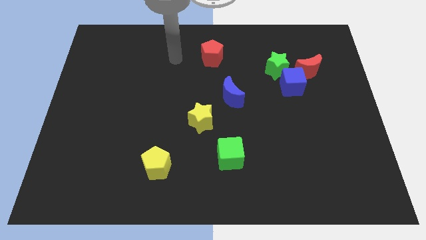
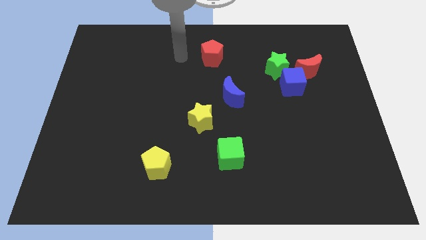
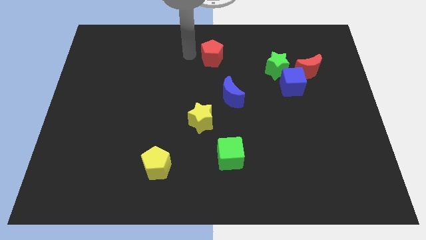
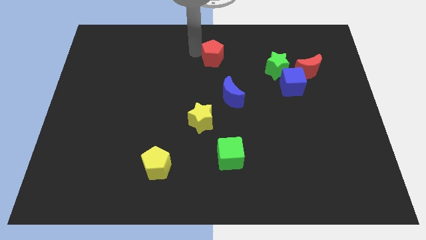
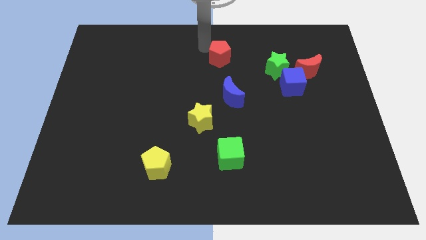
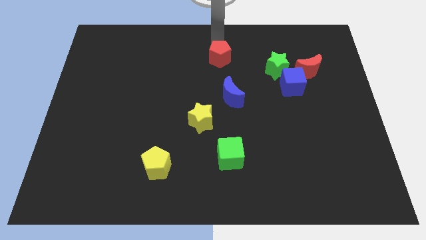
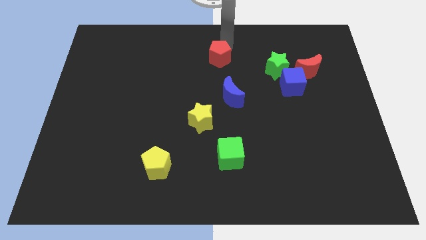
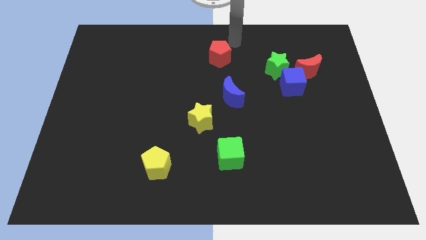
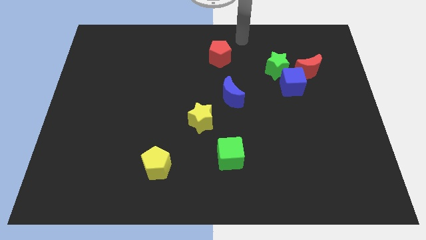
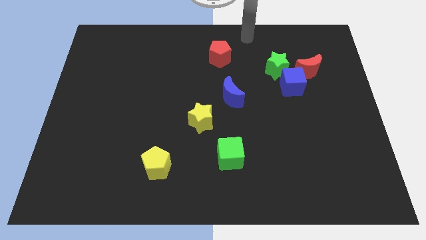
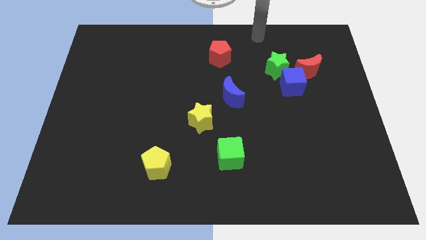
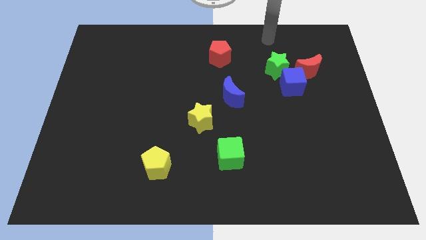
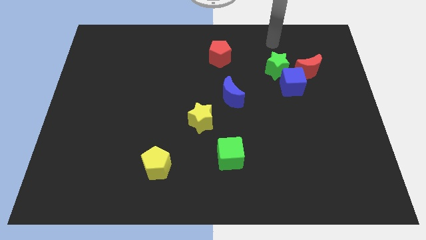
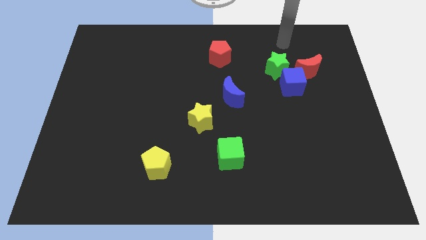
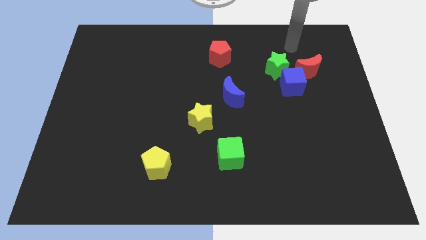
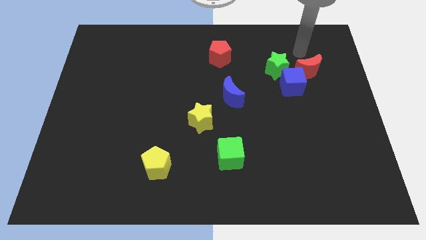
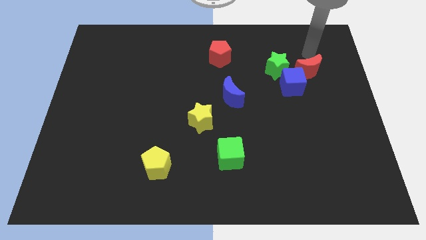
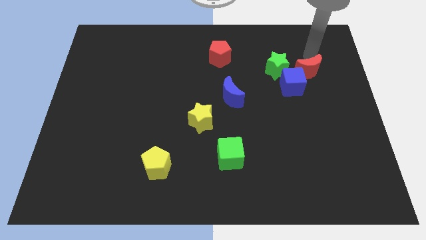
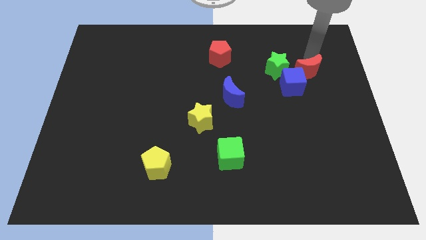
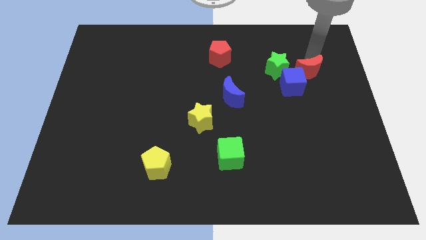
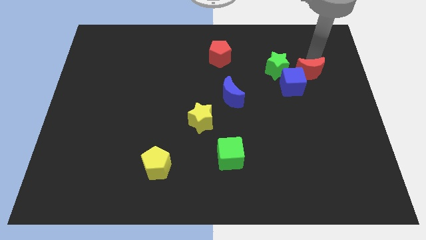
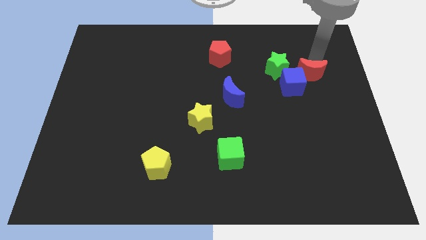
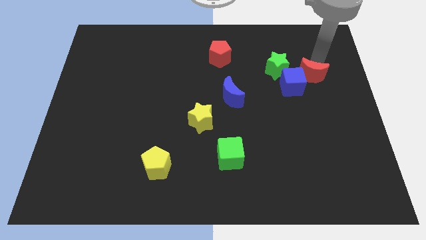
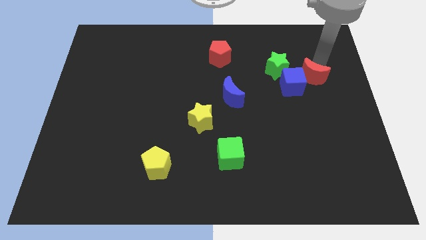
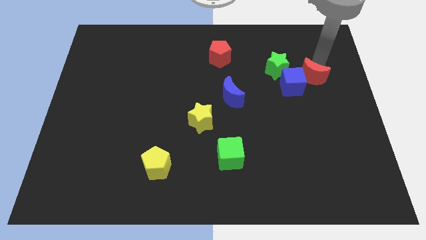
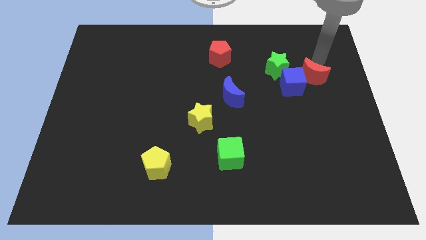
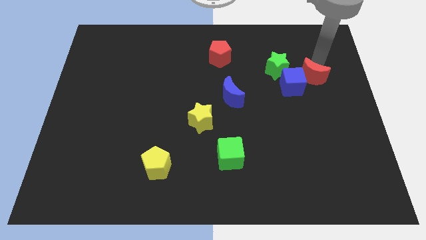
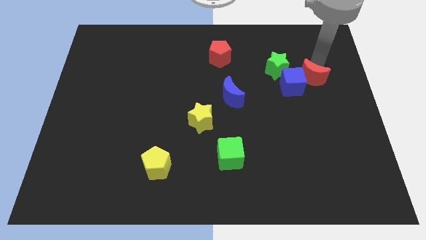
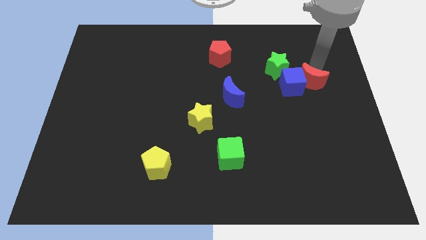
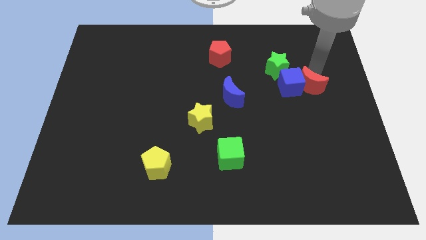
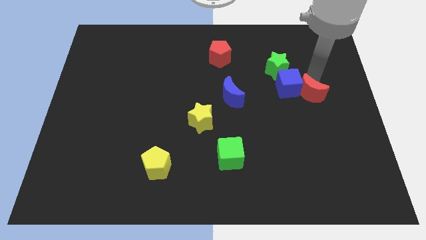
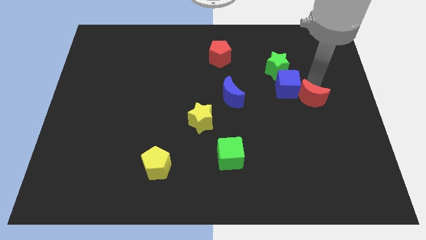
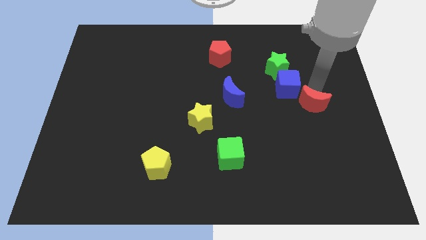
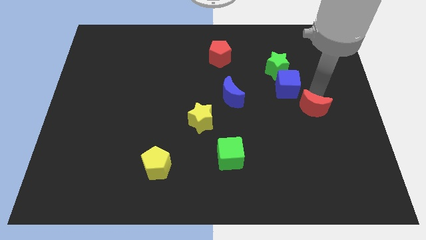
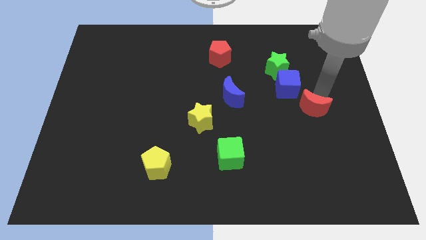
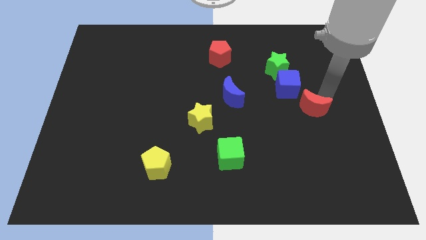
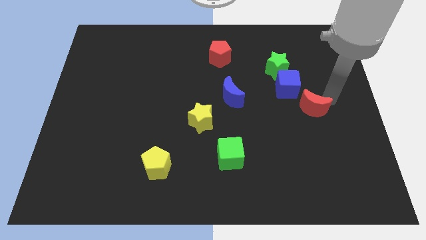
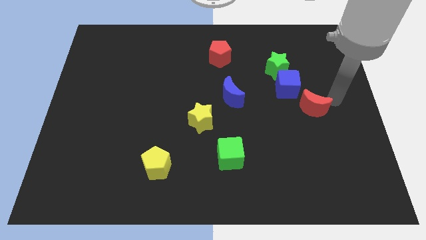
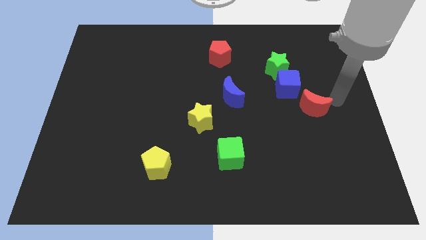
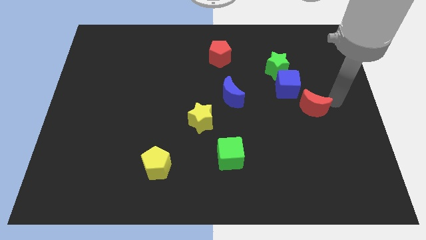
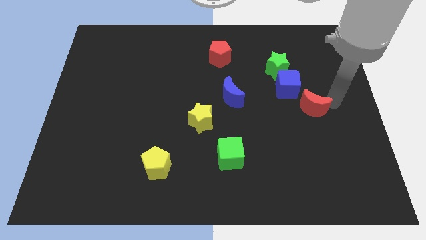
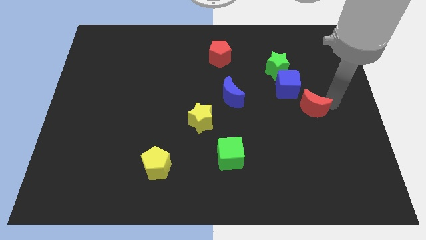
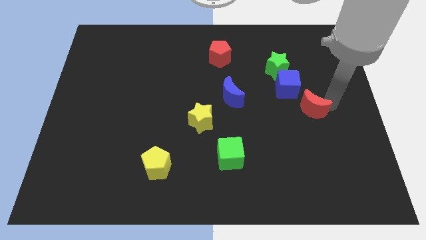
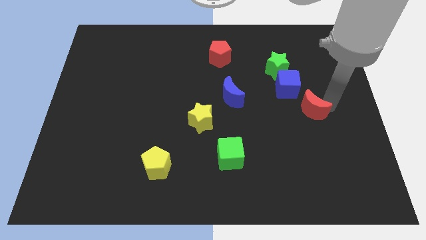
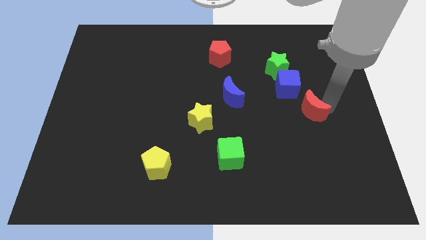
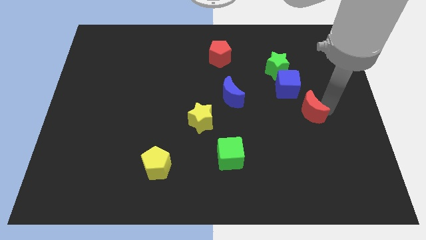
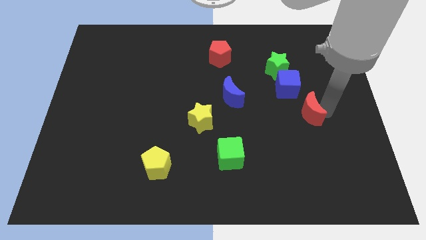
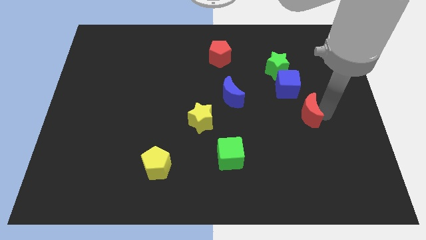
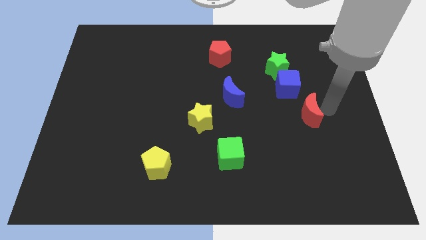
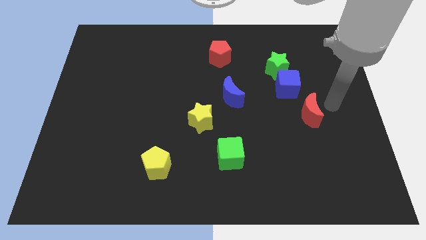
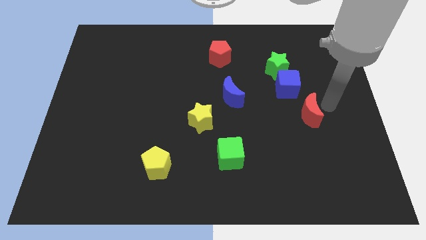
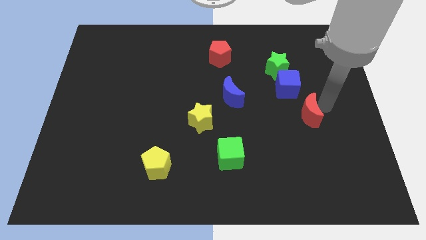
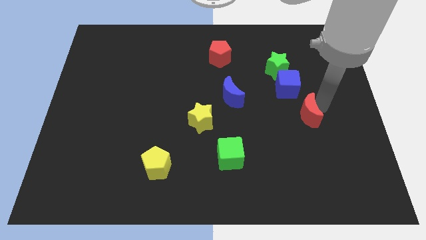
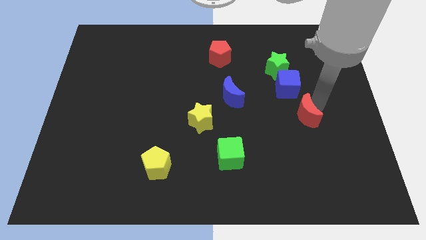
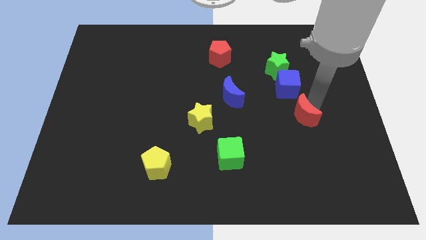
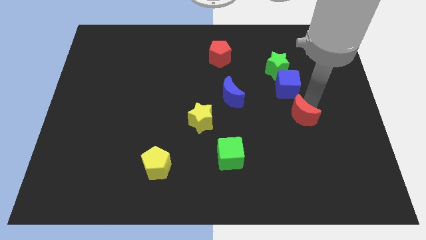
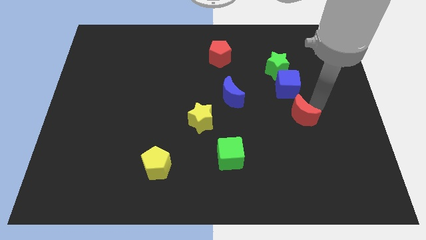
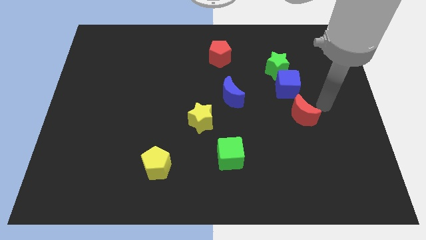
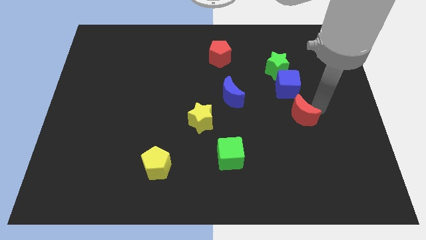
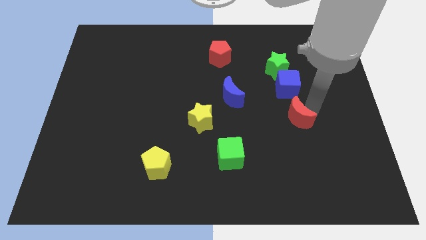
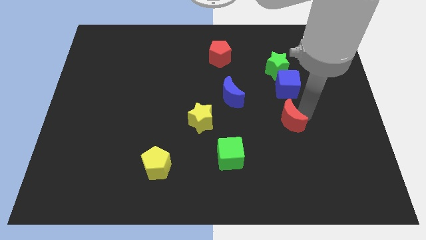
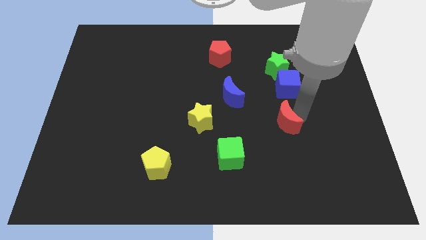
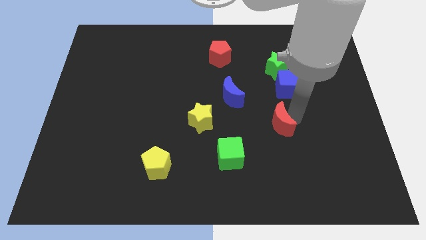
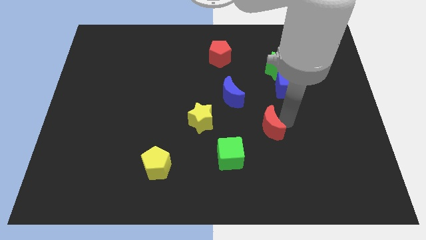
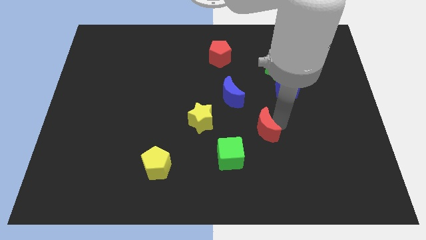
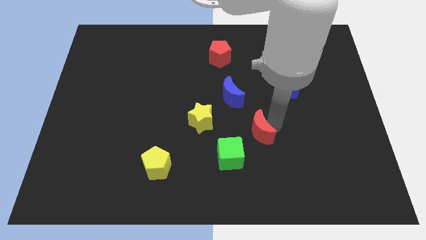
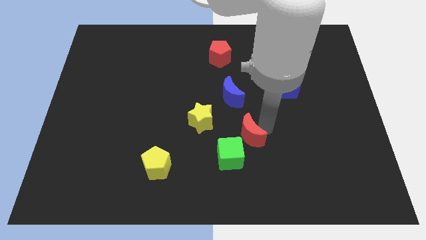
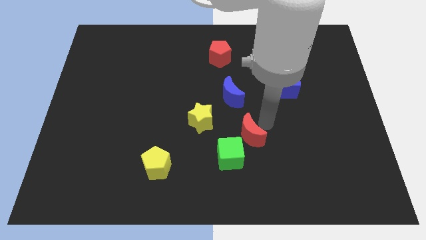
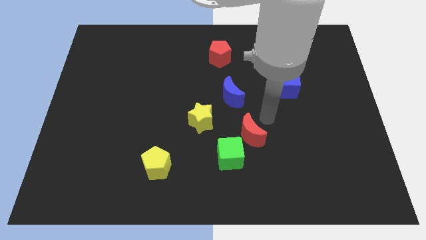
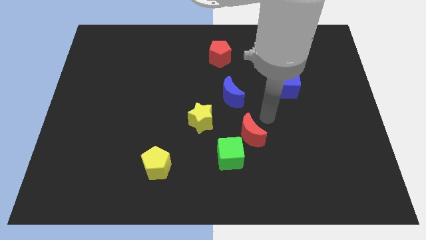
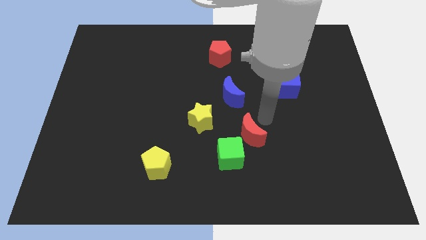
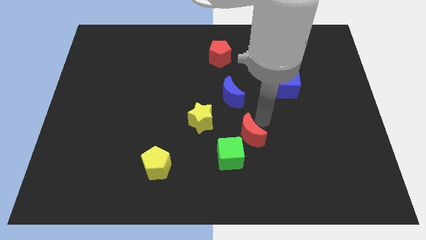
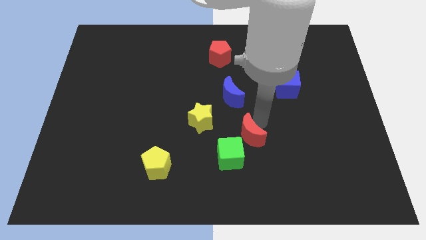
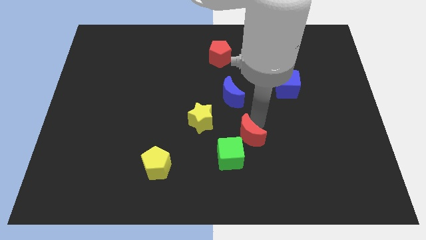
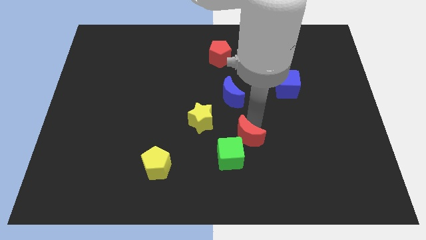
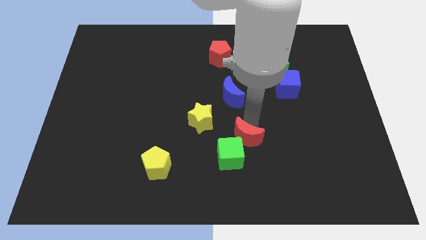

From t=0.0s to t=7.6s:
push the red moon close to the green cube

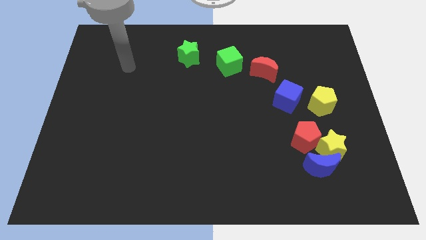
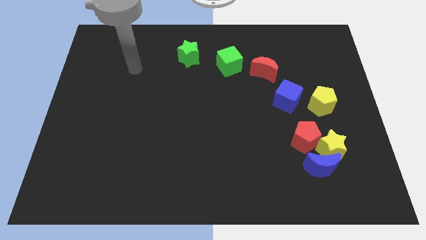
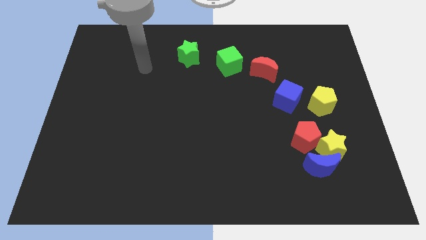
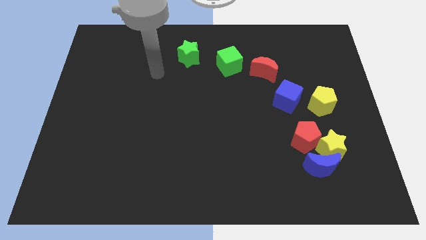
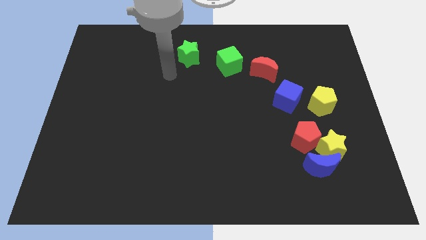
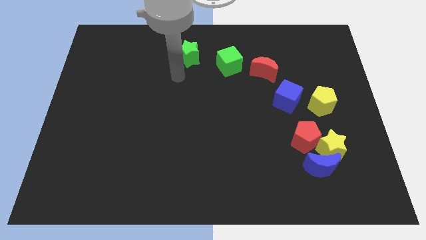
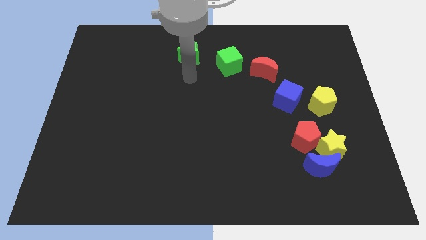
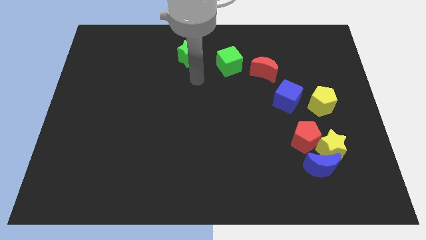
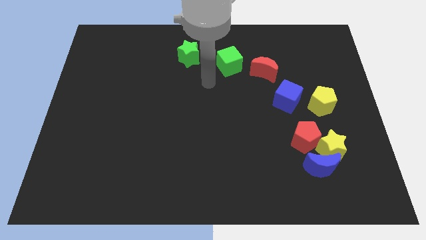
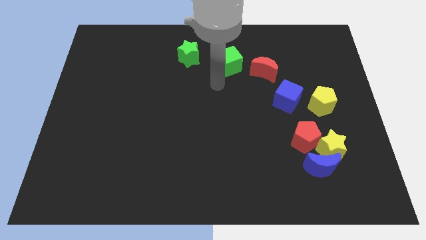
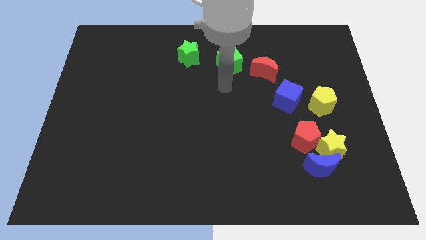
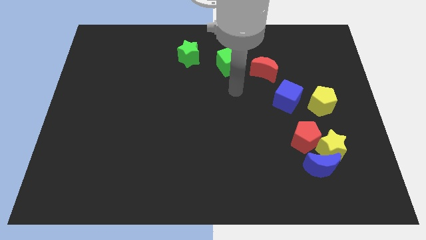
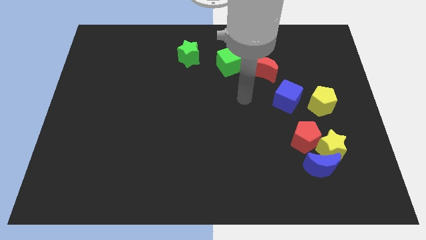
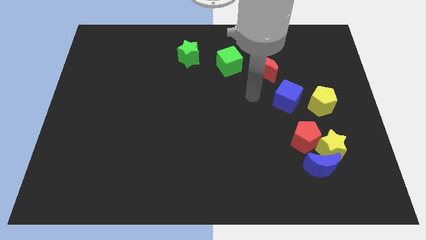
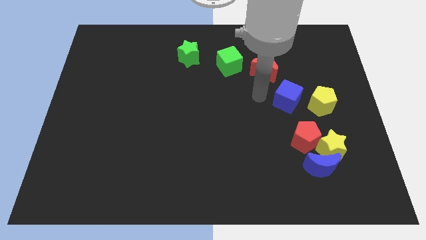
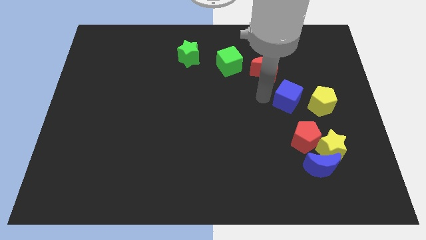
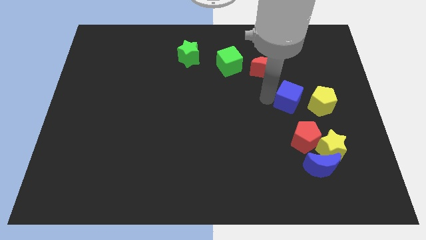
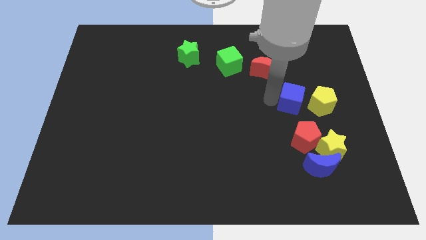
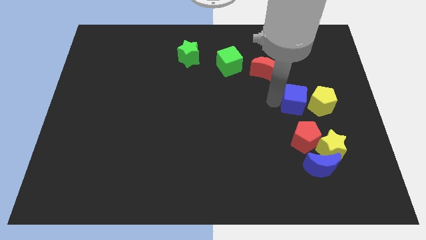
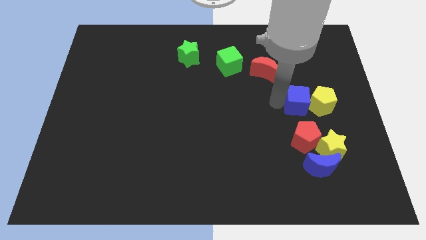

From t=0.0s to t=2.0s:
put the blue cube close to the yellow pentagon
